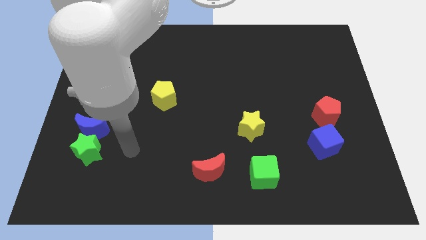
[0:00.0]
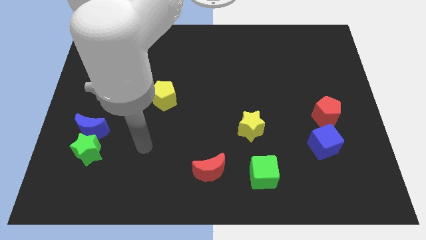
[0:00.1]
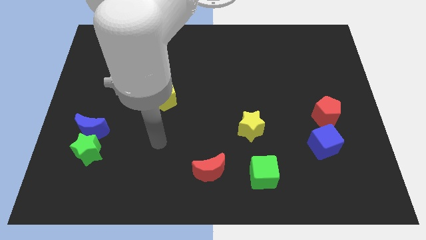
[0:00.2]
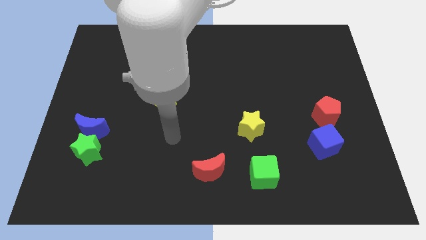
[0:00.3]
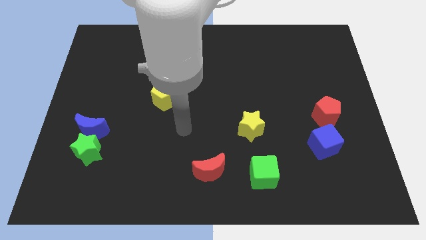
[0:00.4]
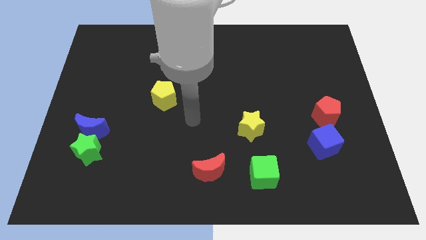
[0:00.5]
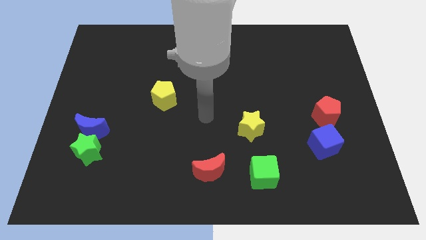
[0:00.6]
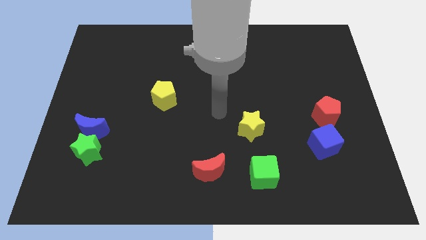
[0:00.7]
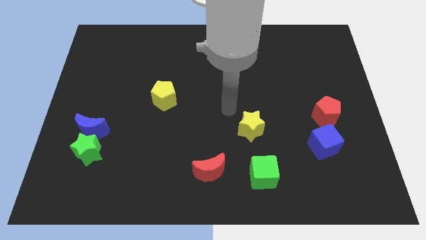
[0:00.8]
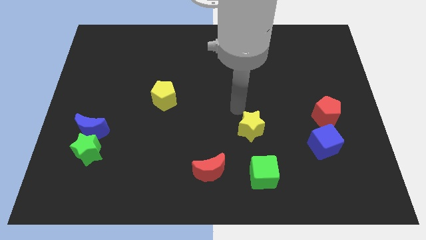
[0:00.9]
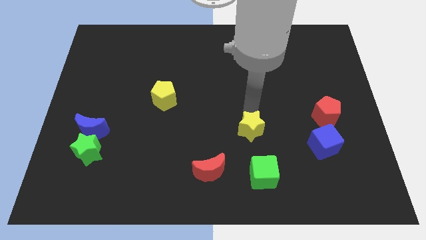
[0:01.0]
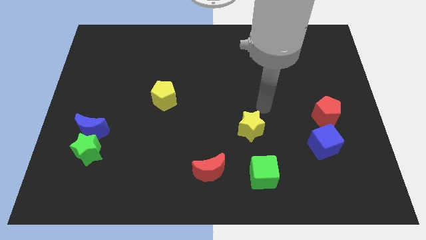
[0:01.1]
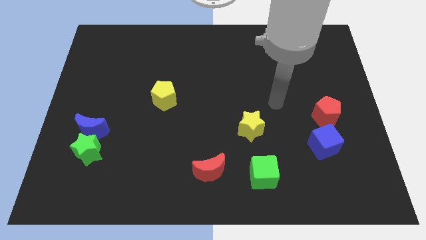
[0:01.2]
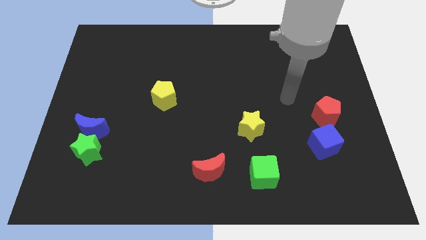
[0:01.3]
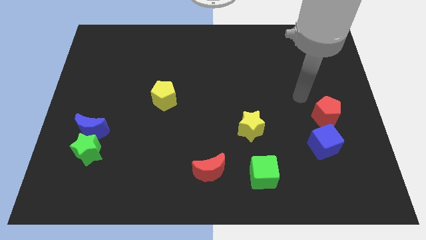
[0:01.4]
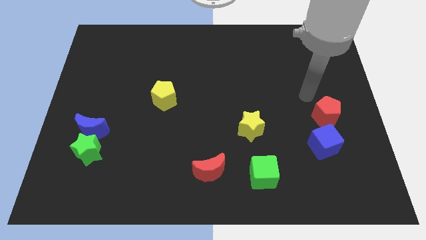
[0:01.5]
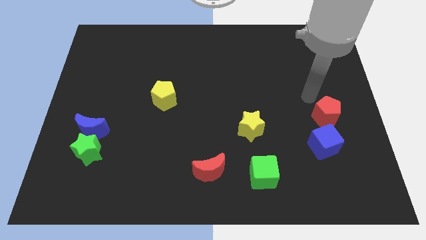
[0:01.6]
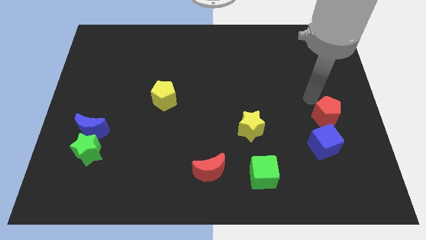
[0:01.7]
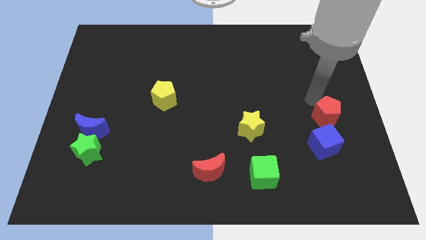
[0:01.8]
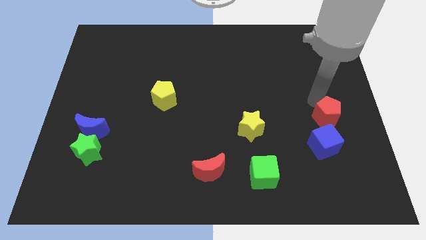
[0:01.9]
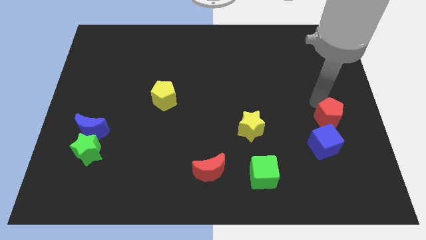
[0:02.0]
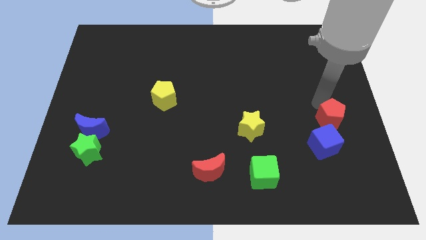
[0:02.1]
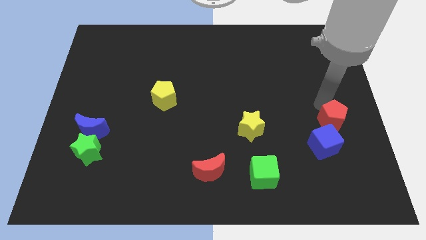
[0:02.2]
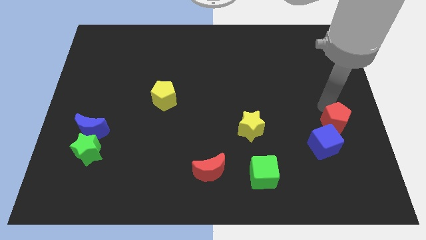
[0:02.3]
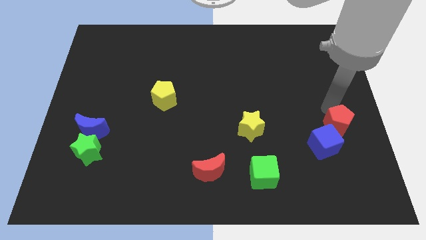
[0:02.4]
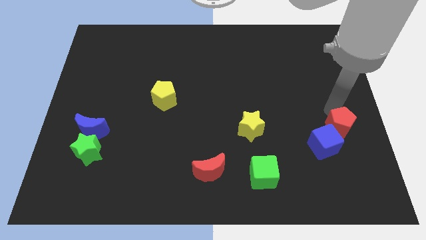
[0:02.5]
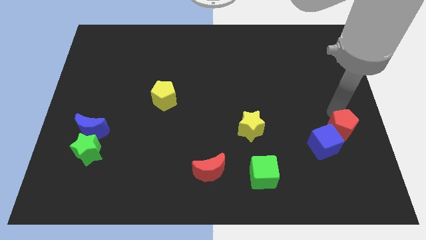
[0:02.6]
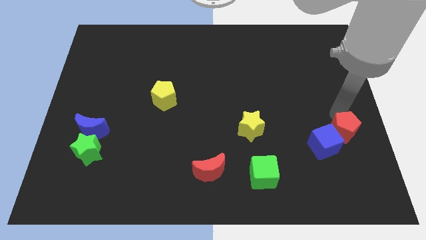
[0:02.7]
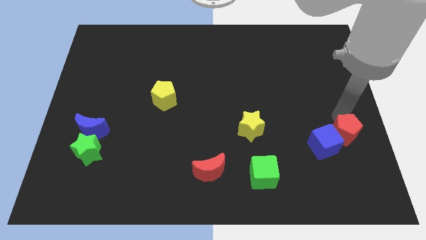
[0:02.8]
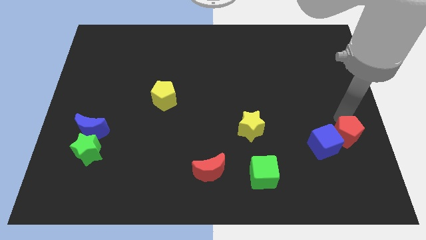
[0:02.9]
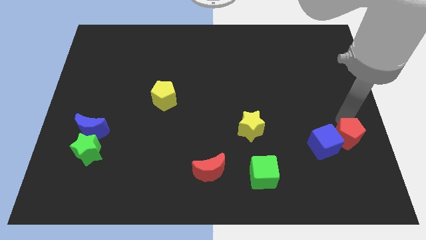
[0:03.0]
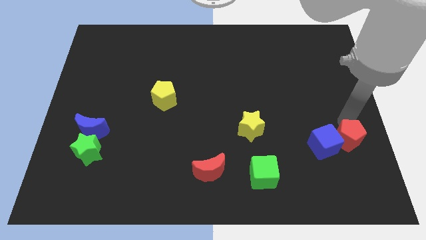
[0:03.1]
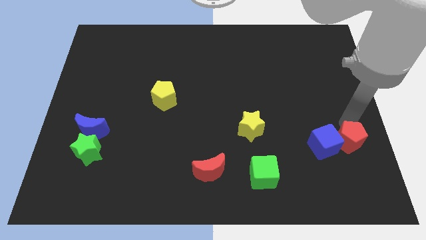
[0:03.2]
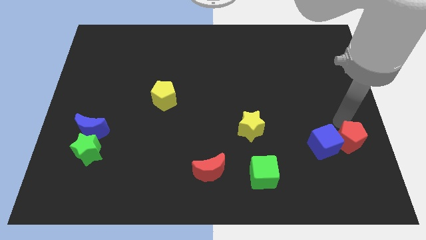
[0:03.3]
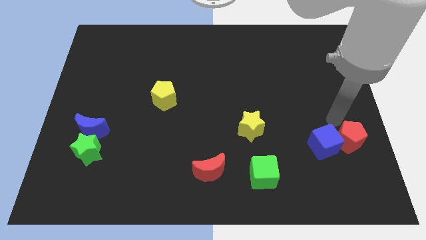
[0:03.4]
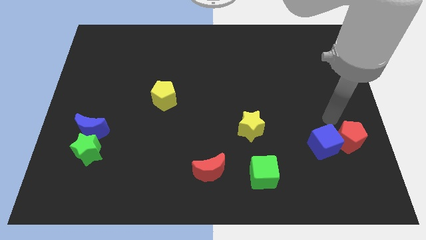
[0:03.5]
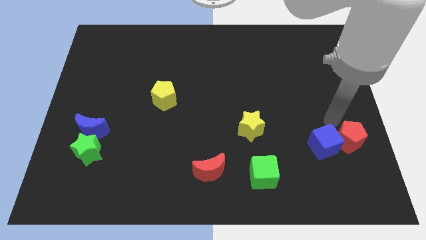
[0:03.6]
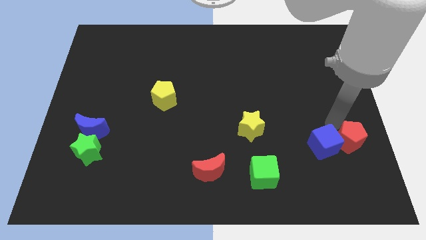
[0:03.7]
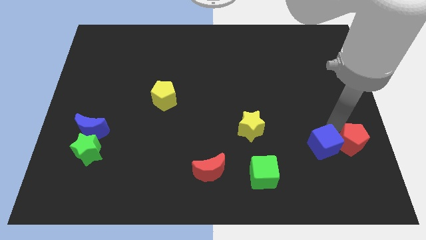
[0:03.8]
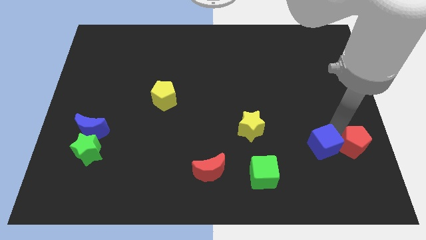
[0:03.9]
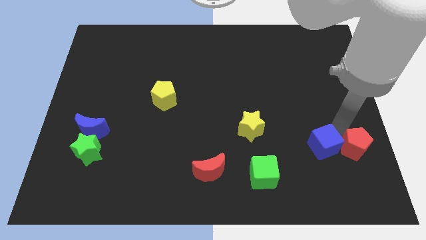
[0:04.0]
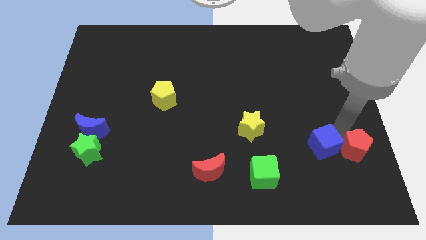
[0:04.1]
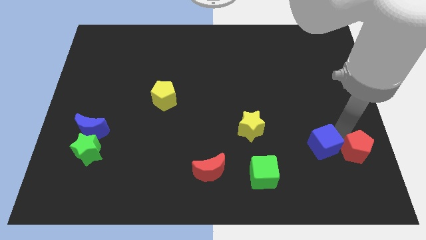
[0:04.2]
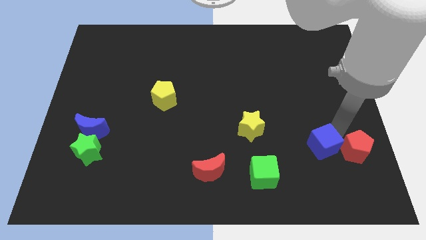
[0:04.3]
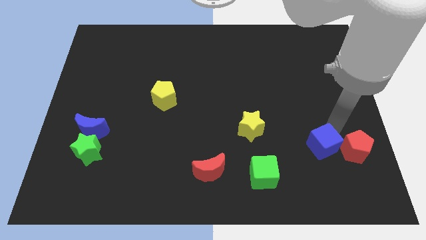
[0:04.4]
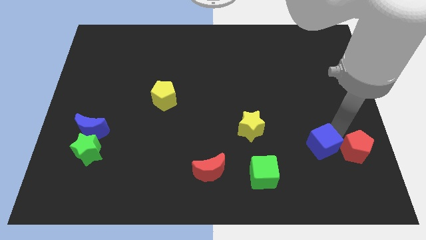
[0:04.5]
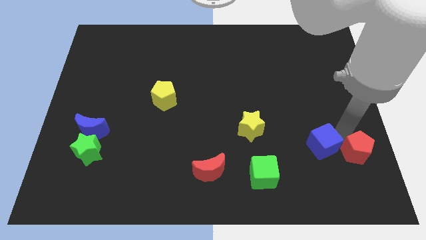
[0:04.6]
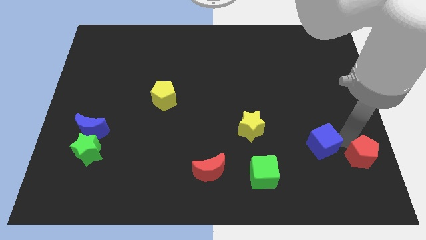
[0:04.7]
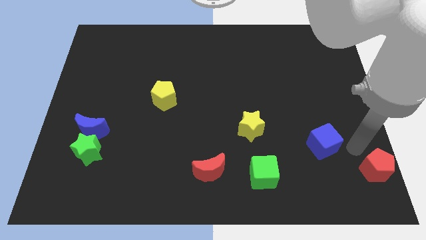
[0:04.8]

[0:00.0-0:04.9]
push the red pentagon to the bottom right corner

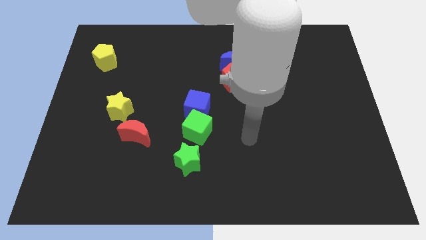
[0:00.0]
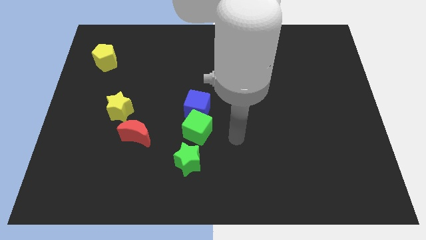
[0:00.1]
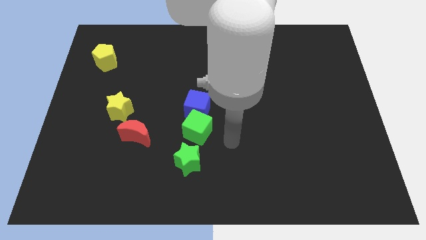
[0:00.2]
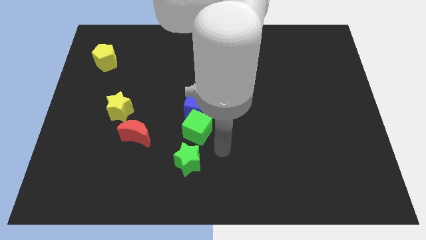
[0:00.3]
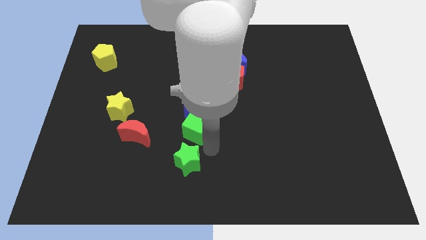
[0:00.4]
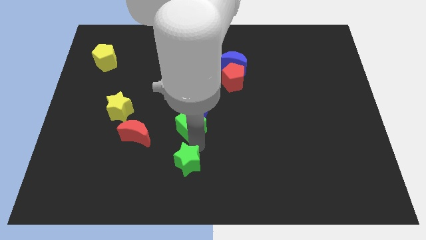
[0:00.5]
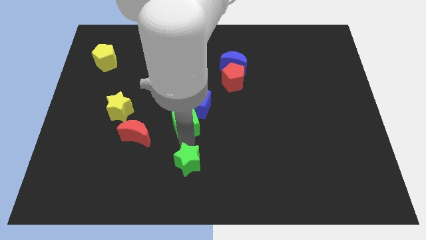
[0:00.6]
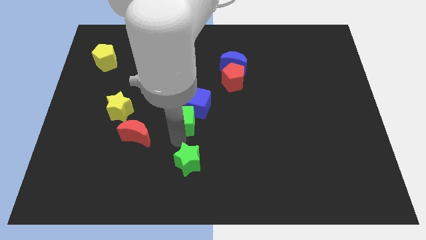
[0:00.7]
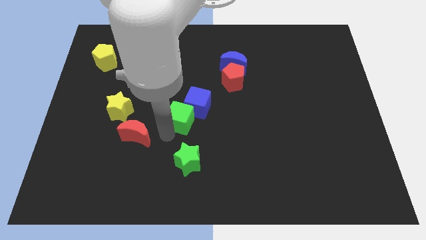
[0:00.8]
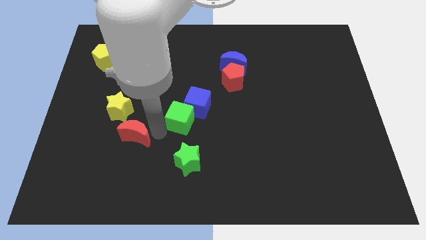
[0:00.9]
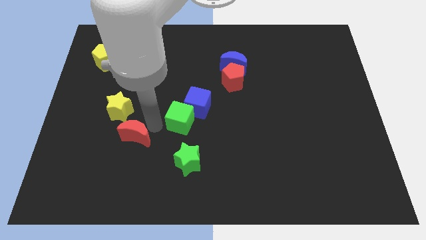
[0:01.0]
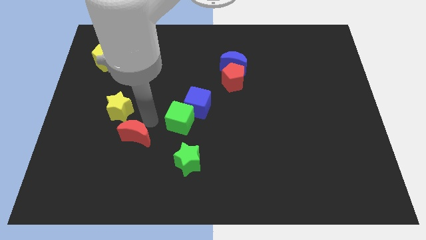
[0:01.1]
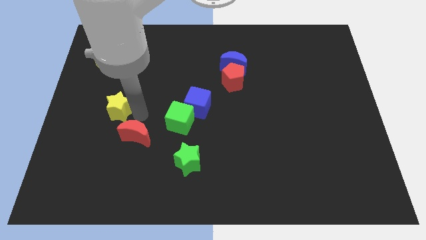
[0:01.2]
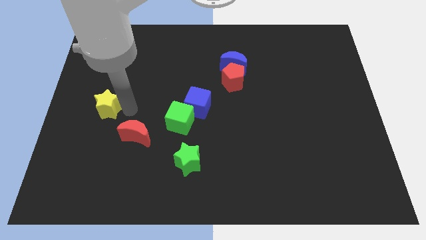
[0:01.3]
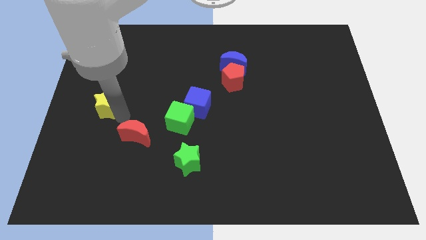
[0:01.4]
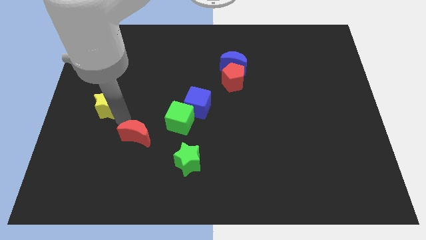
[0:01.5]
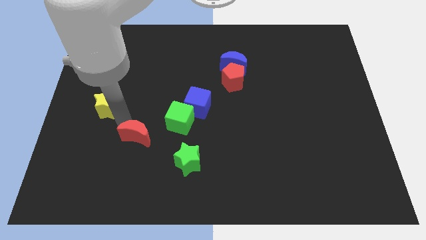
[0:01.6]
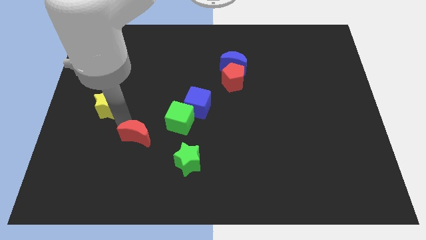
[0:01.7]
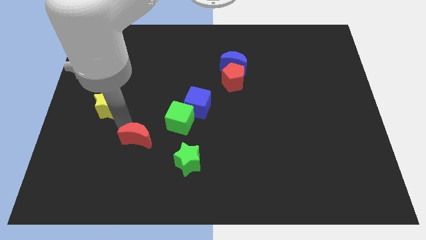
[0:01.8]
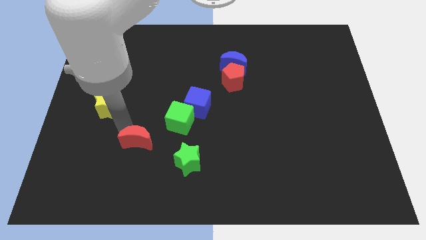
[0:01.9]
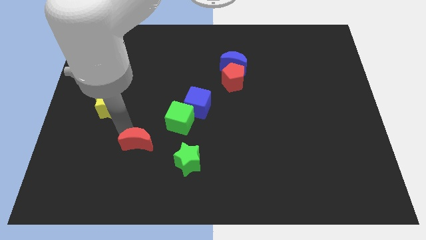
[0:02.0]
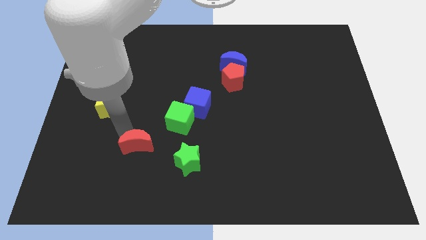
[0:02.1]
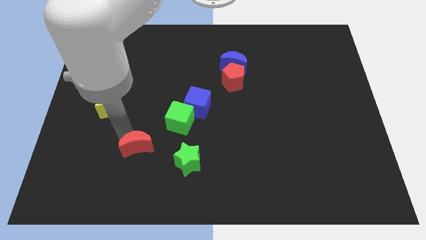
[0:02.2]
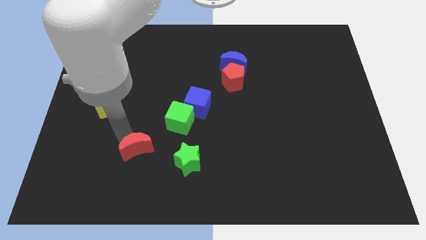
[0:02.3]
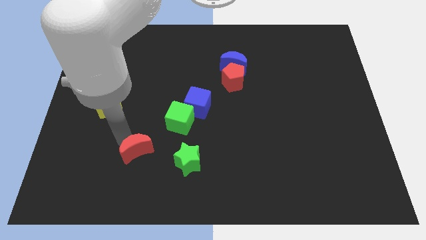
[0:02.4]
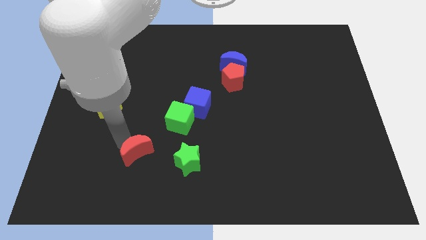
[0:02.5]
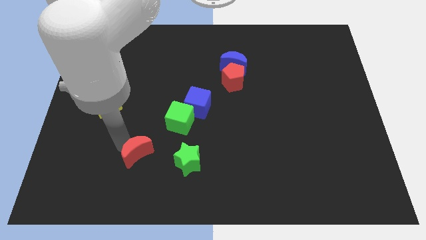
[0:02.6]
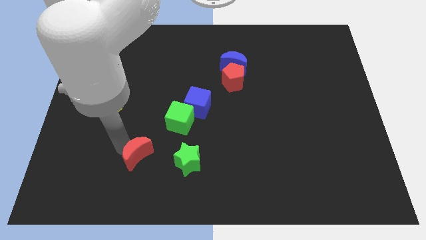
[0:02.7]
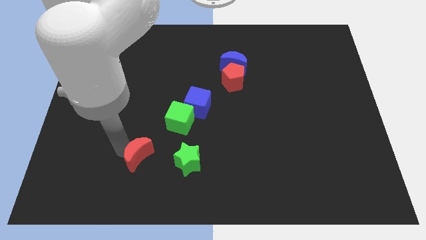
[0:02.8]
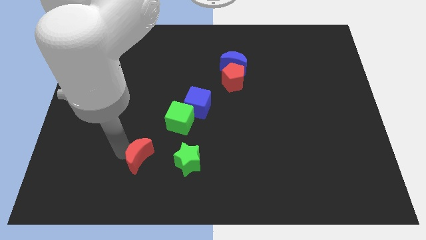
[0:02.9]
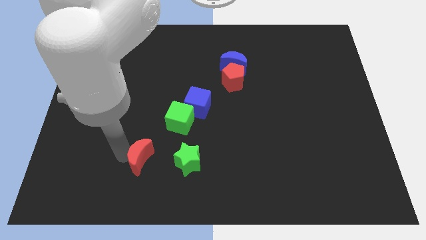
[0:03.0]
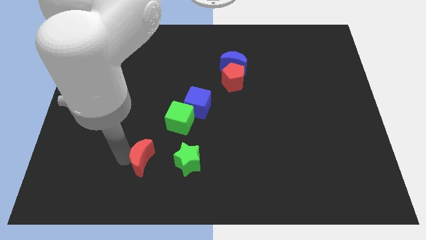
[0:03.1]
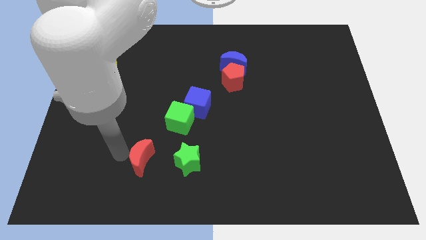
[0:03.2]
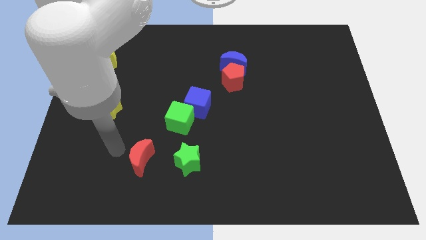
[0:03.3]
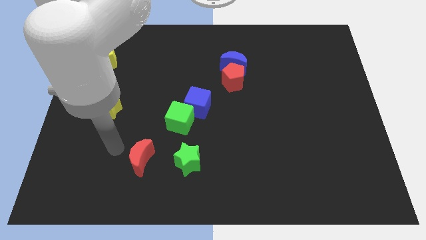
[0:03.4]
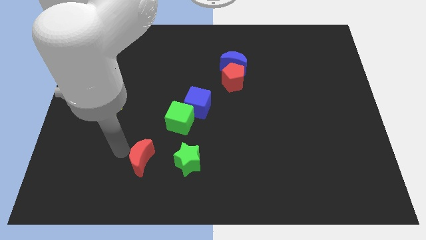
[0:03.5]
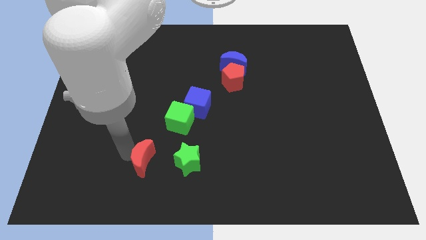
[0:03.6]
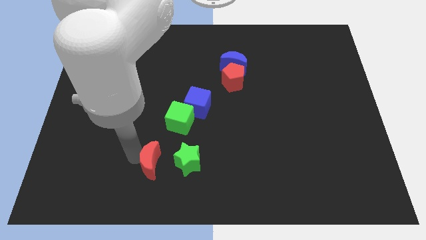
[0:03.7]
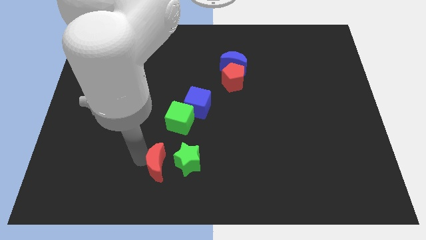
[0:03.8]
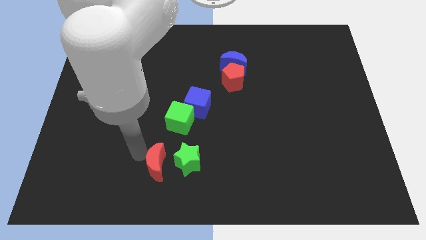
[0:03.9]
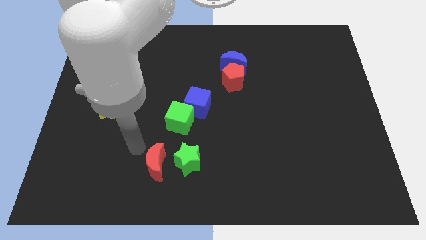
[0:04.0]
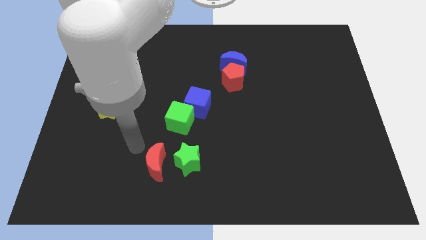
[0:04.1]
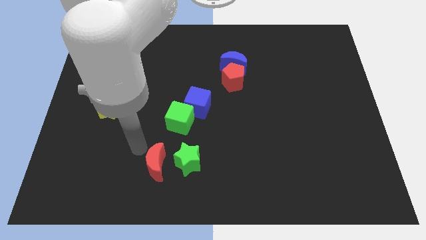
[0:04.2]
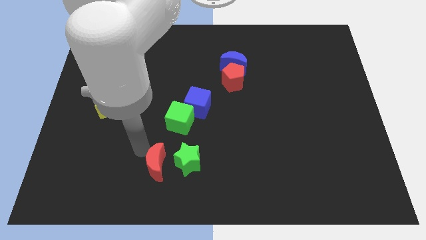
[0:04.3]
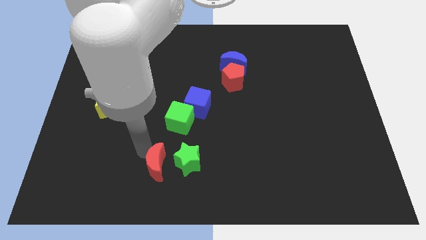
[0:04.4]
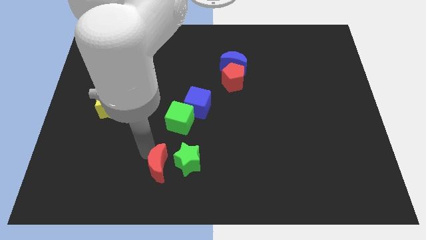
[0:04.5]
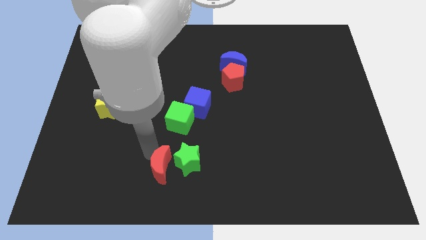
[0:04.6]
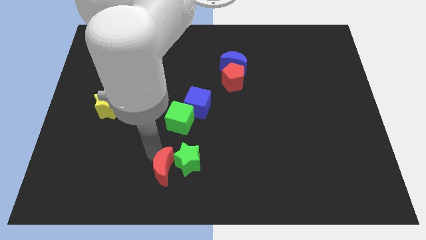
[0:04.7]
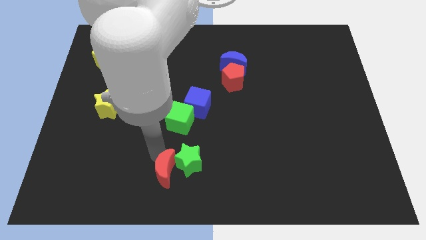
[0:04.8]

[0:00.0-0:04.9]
move the red moon to the bottom side
